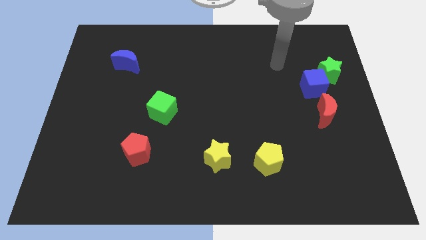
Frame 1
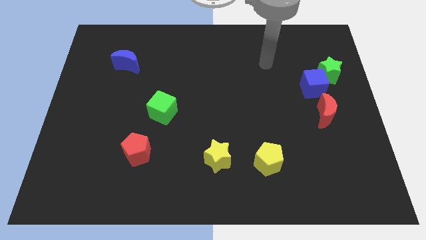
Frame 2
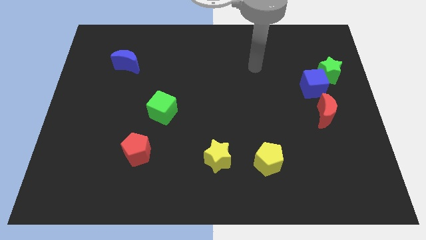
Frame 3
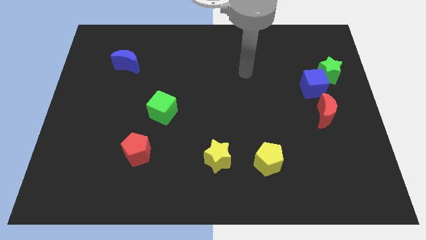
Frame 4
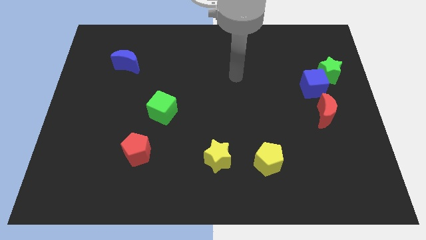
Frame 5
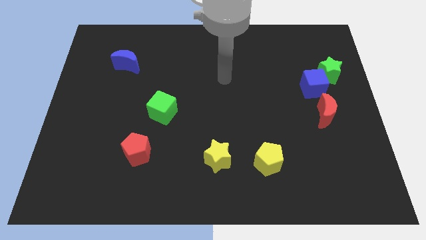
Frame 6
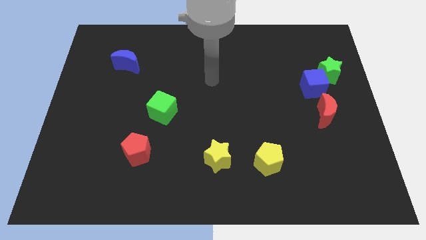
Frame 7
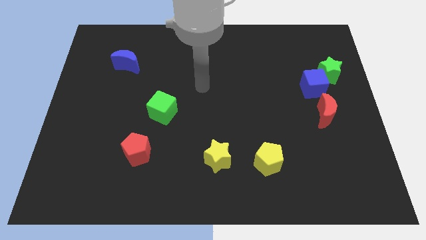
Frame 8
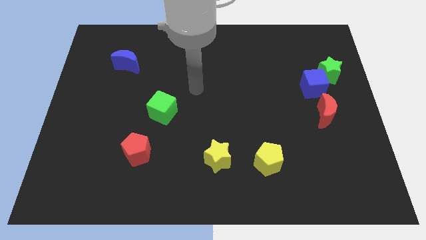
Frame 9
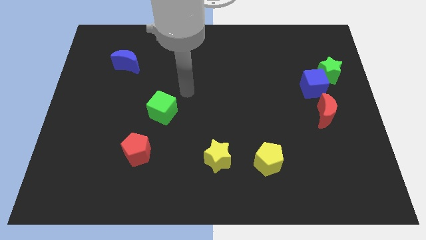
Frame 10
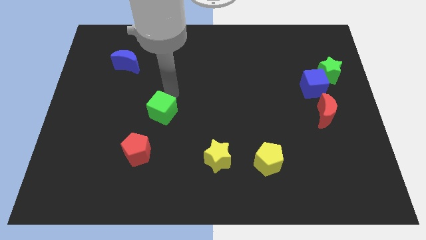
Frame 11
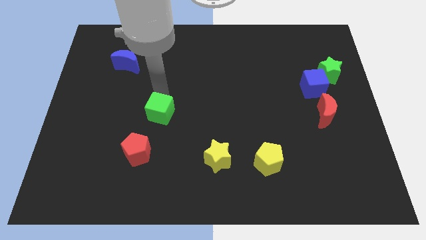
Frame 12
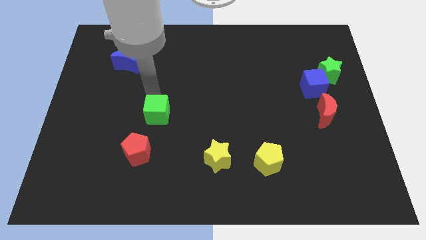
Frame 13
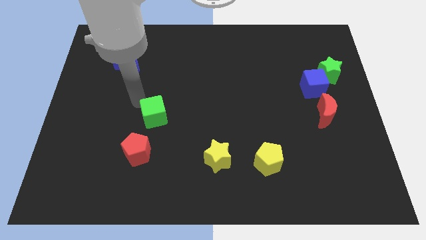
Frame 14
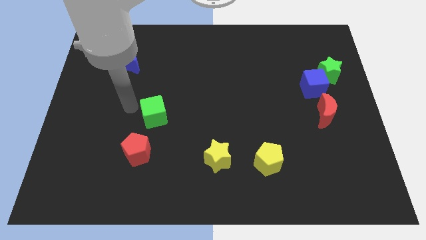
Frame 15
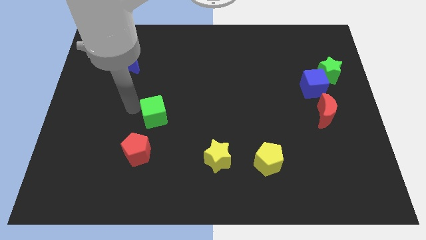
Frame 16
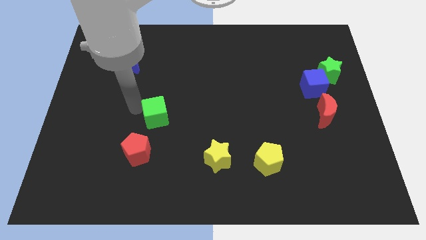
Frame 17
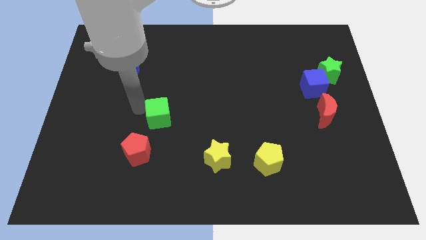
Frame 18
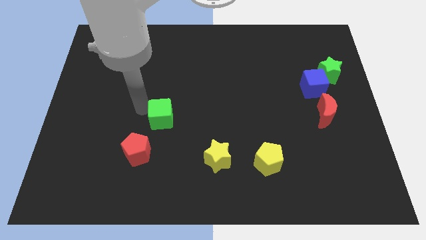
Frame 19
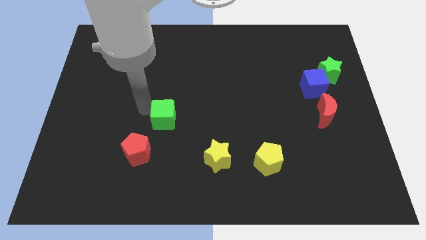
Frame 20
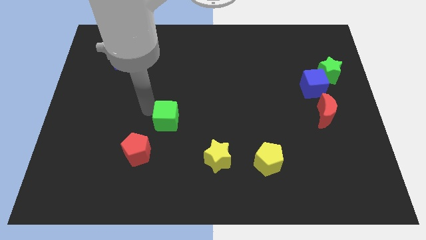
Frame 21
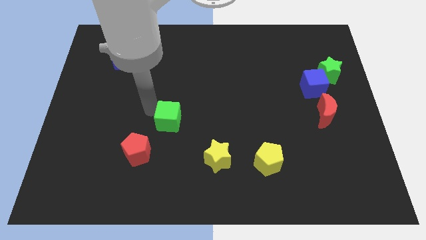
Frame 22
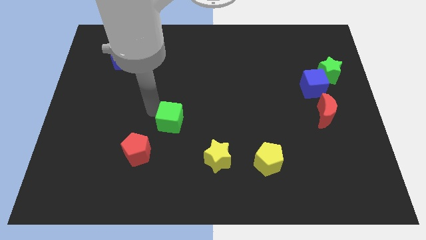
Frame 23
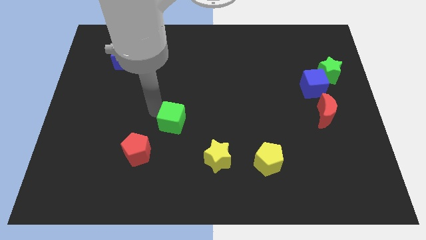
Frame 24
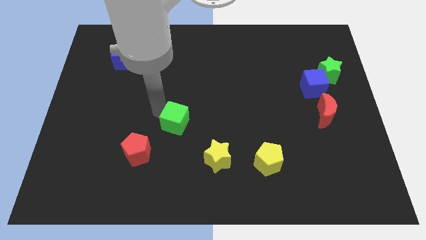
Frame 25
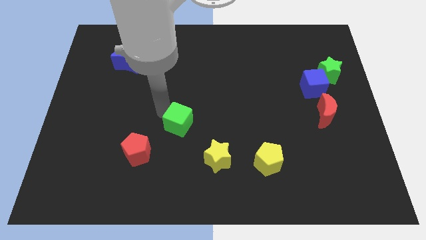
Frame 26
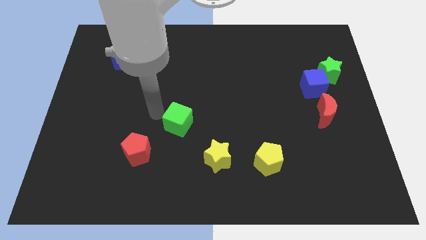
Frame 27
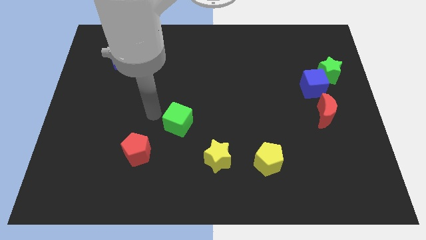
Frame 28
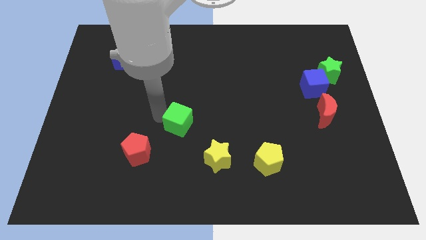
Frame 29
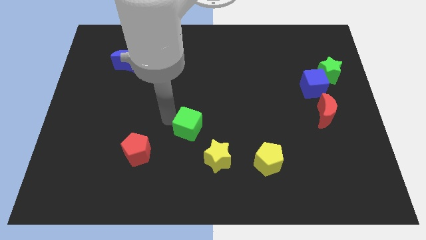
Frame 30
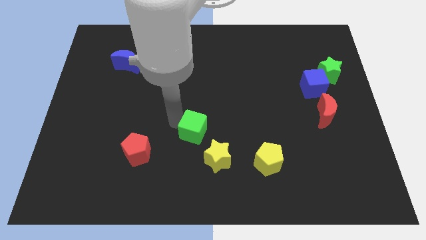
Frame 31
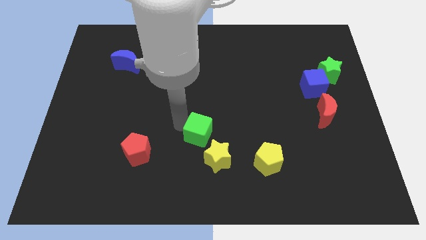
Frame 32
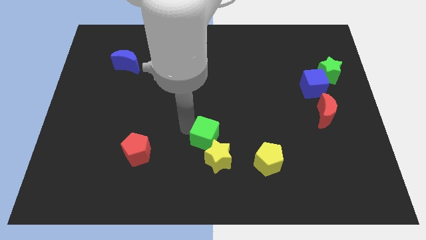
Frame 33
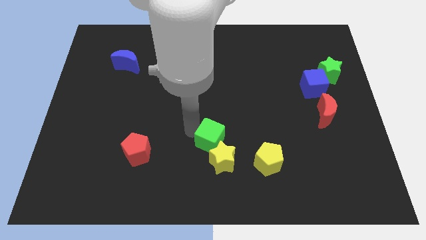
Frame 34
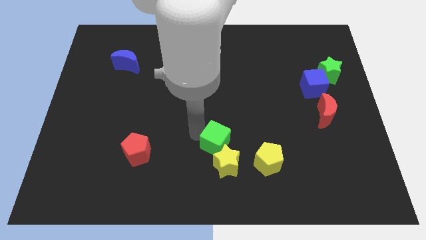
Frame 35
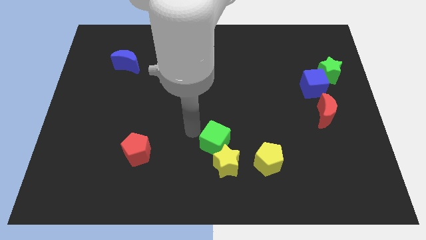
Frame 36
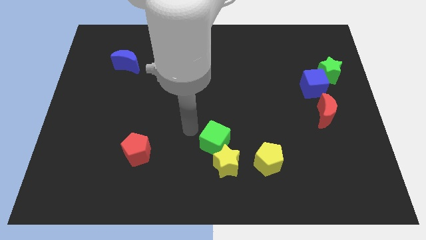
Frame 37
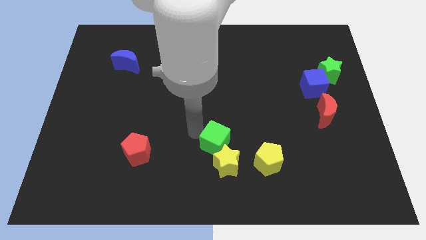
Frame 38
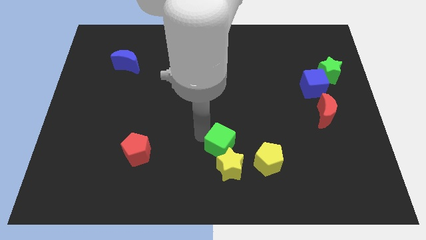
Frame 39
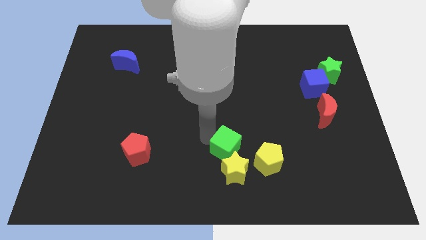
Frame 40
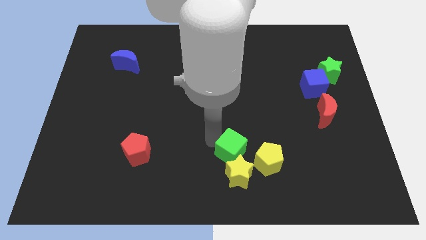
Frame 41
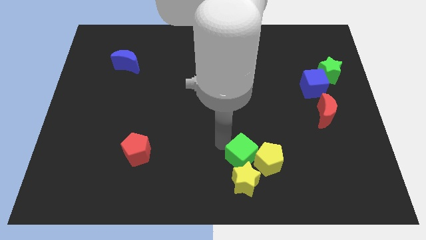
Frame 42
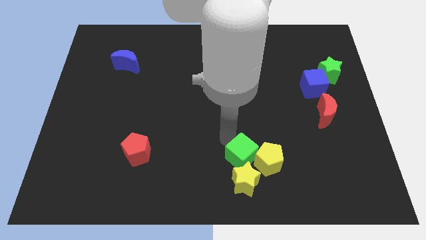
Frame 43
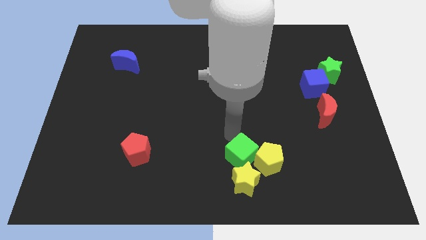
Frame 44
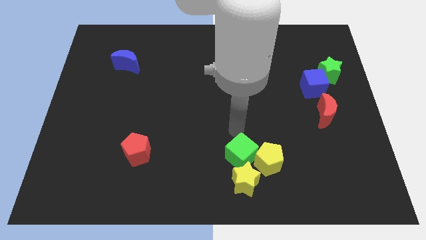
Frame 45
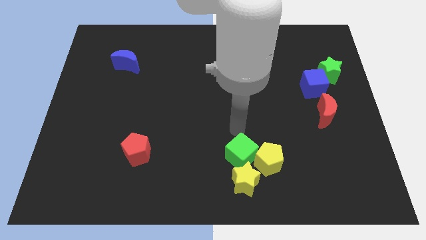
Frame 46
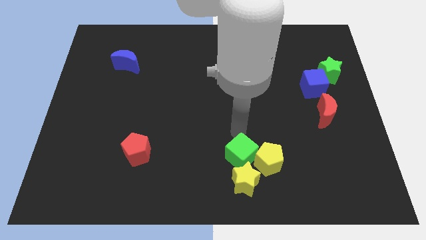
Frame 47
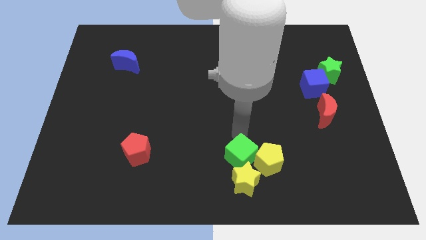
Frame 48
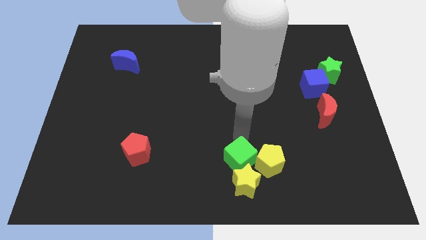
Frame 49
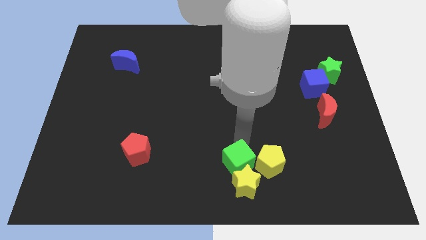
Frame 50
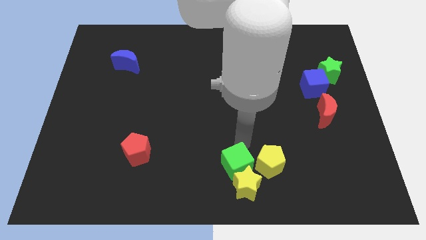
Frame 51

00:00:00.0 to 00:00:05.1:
slide the green cube diagonally down and to the left of the yellow pentagon

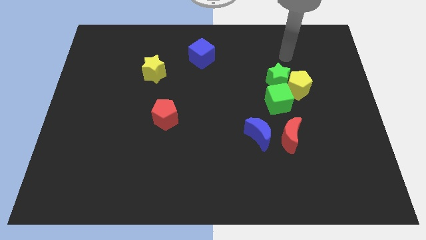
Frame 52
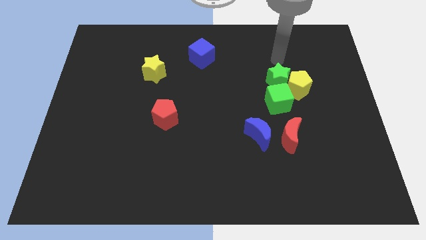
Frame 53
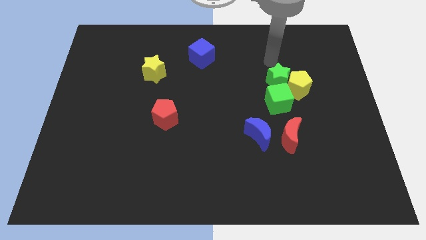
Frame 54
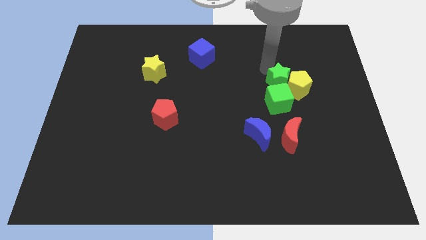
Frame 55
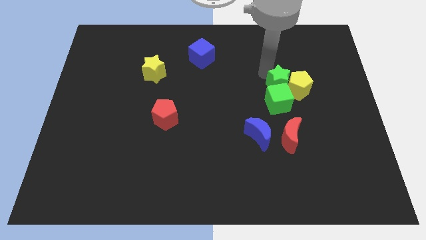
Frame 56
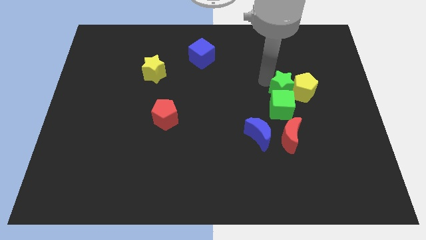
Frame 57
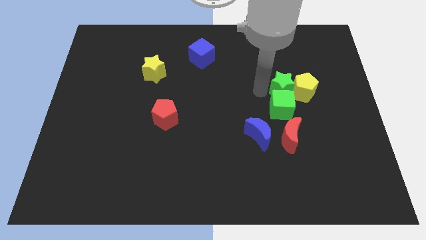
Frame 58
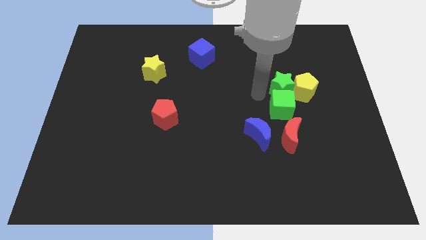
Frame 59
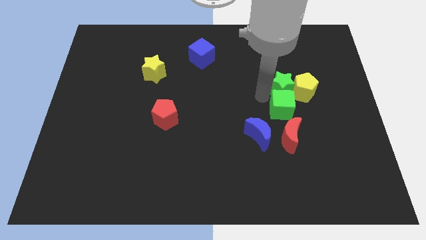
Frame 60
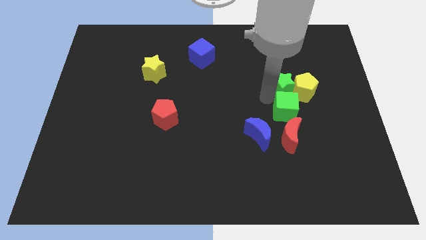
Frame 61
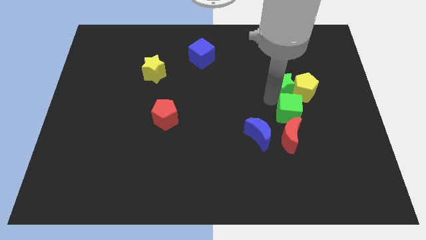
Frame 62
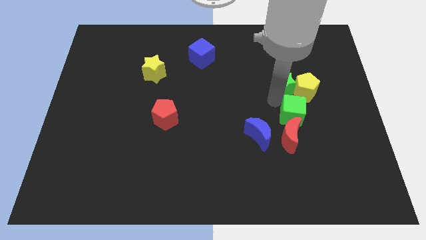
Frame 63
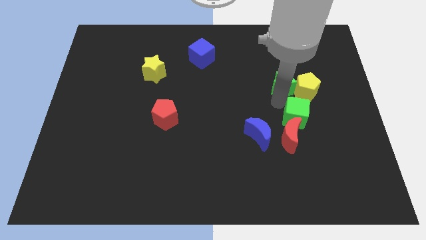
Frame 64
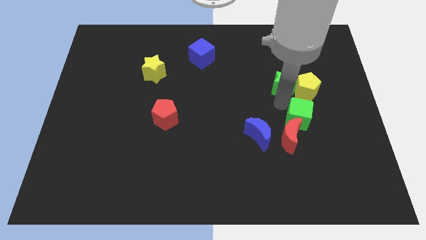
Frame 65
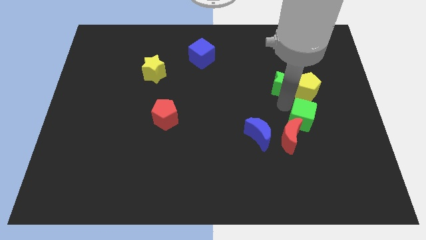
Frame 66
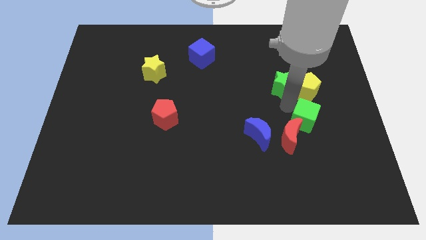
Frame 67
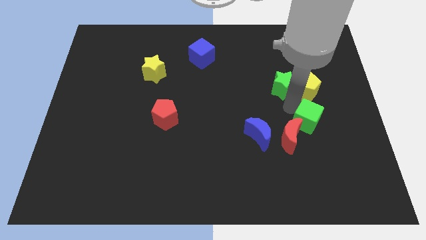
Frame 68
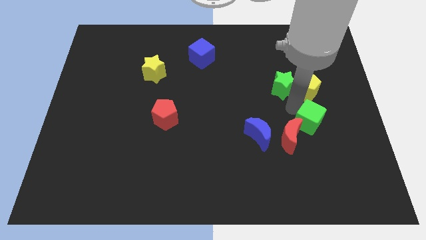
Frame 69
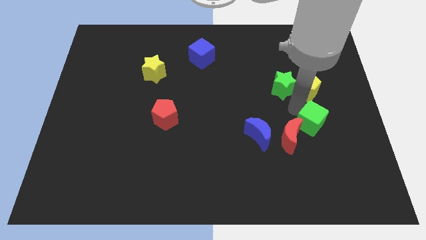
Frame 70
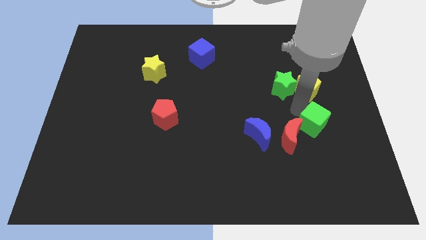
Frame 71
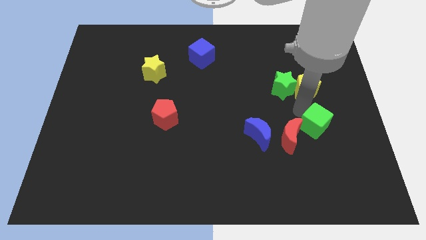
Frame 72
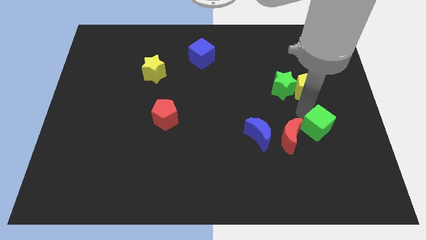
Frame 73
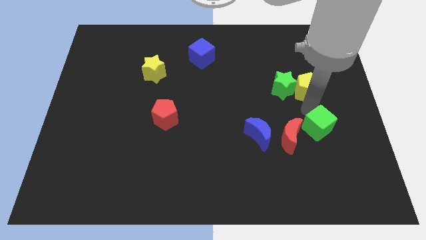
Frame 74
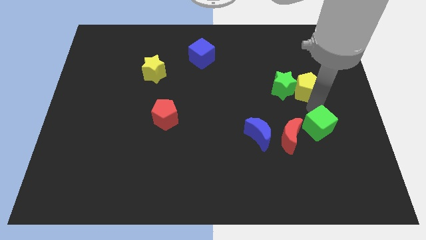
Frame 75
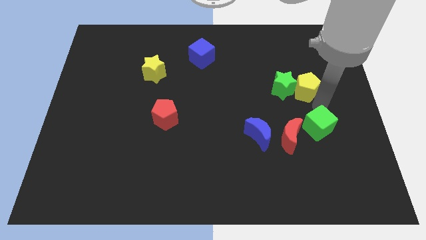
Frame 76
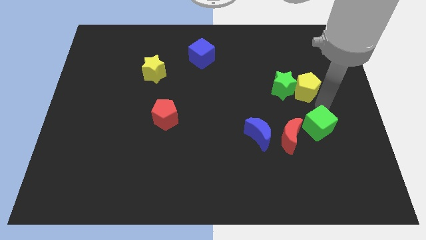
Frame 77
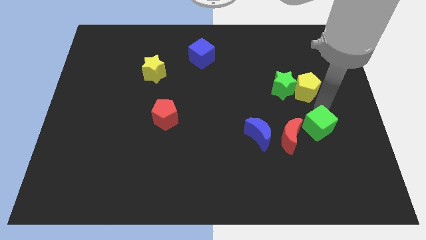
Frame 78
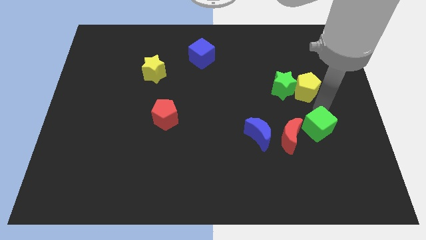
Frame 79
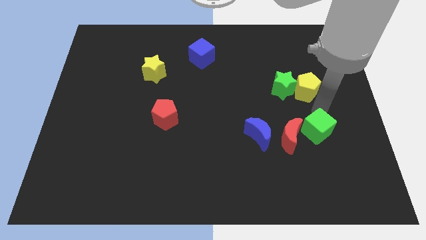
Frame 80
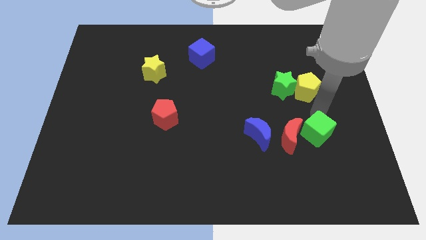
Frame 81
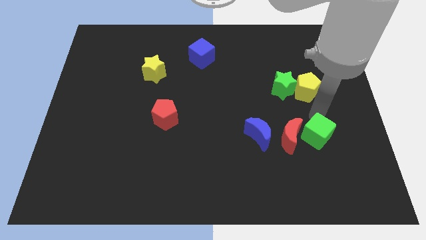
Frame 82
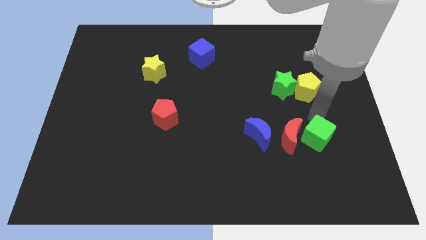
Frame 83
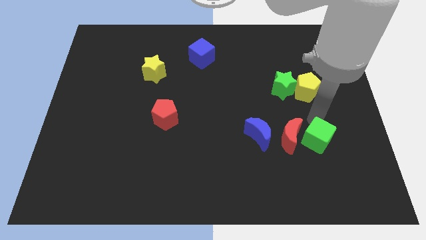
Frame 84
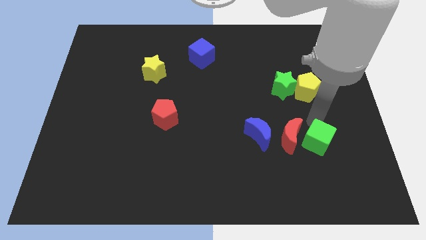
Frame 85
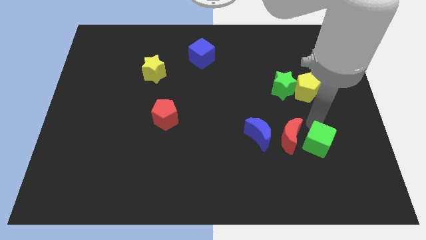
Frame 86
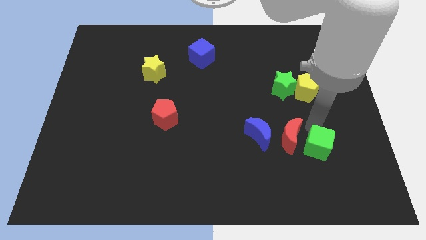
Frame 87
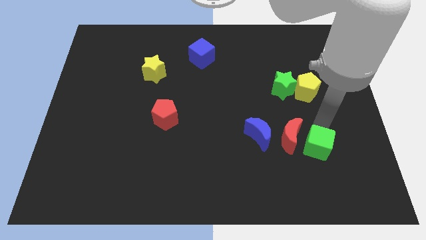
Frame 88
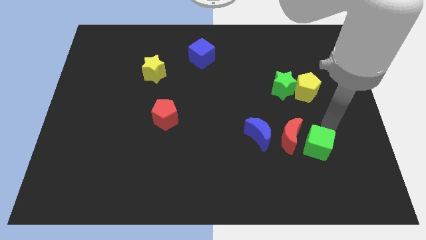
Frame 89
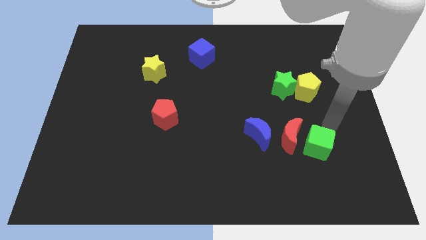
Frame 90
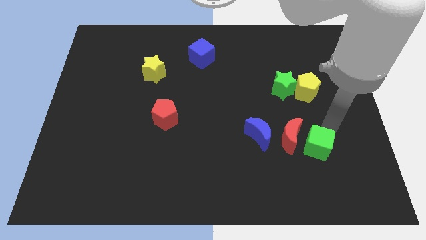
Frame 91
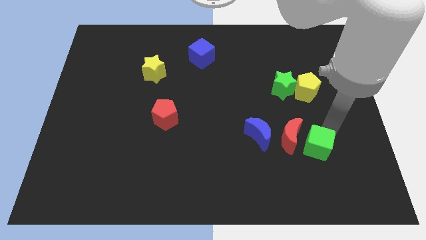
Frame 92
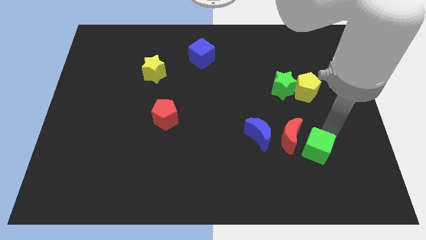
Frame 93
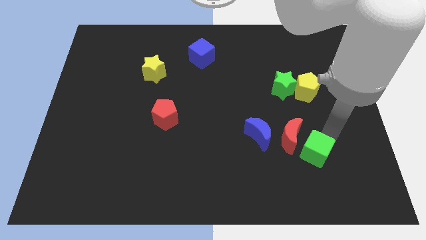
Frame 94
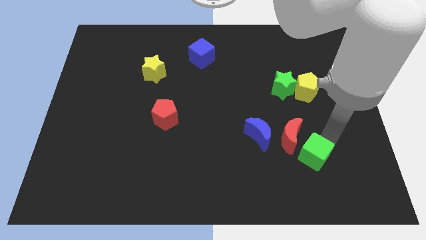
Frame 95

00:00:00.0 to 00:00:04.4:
put the green cube to the bottom of the red moon
